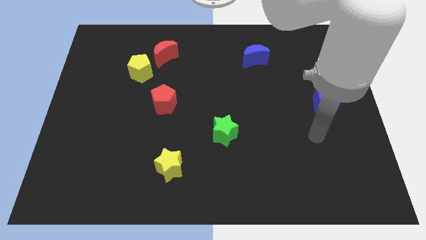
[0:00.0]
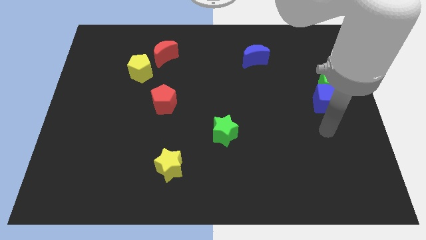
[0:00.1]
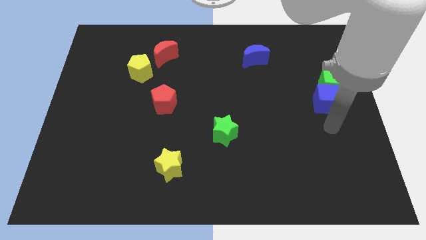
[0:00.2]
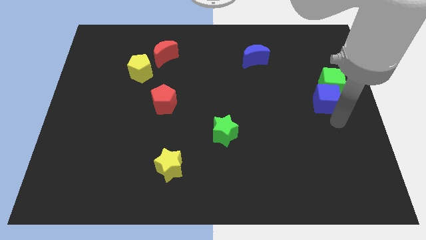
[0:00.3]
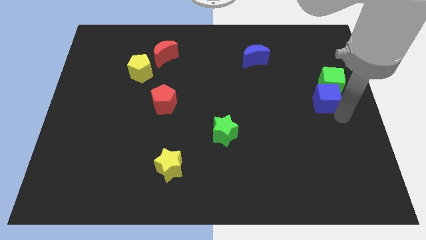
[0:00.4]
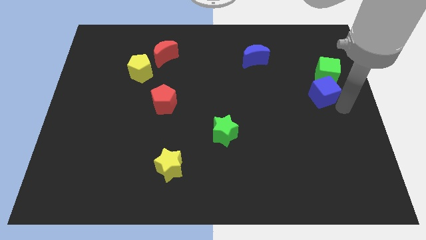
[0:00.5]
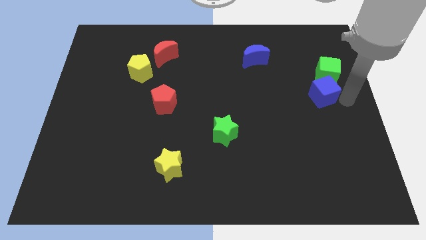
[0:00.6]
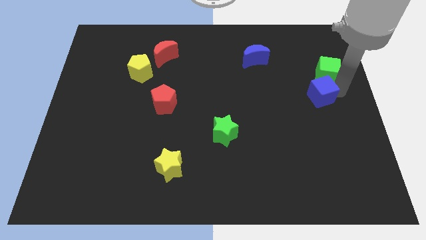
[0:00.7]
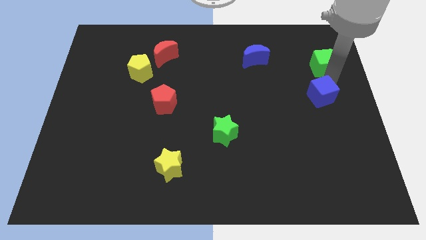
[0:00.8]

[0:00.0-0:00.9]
pull the blue cube apart from the green cube

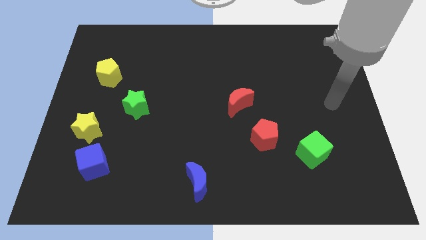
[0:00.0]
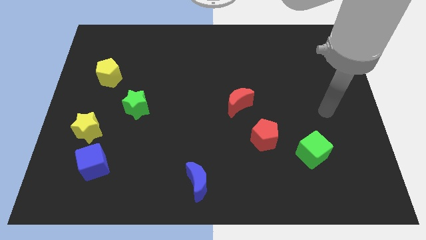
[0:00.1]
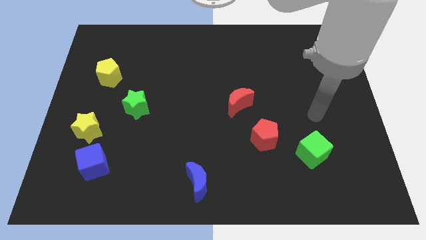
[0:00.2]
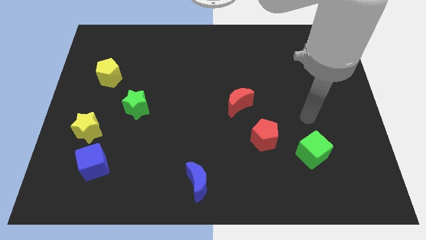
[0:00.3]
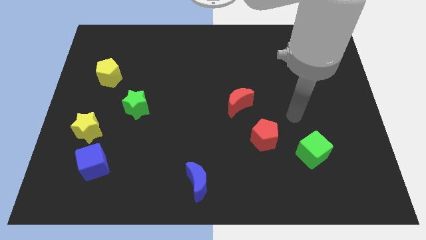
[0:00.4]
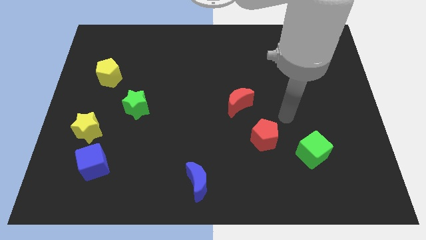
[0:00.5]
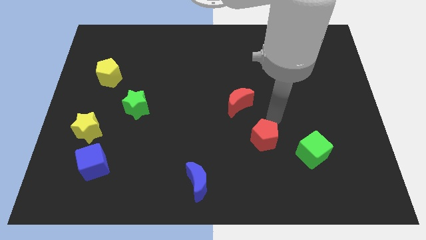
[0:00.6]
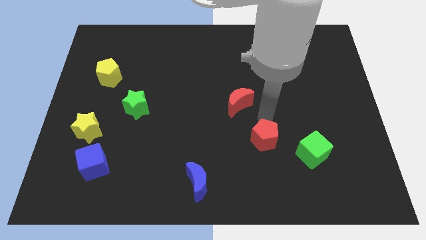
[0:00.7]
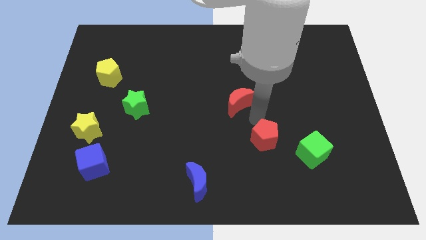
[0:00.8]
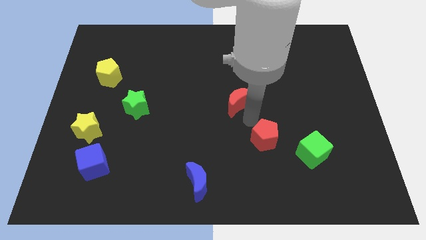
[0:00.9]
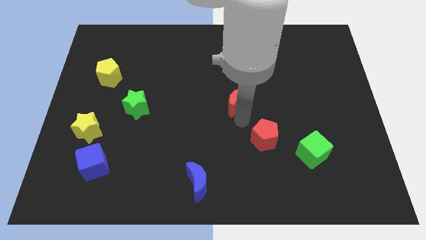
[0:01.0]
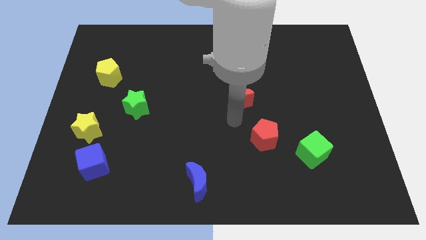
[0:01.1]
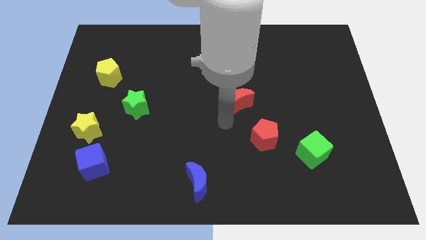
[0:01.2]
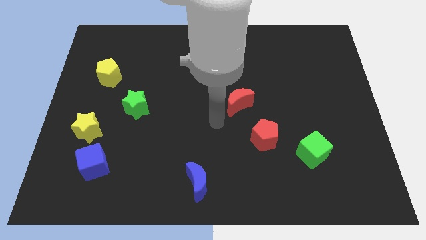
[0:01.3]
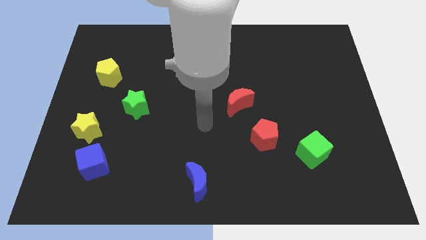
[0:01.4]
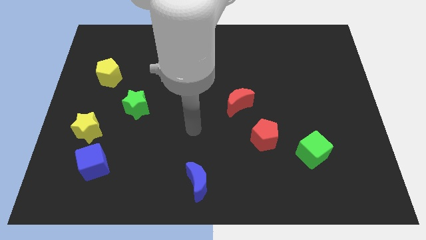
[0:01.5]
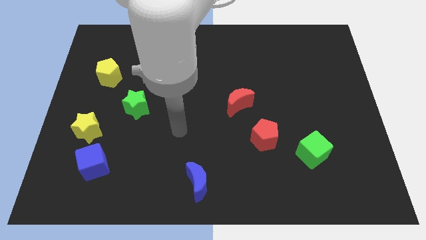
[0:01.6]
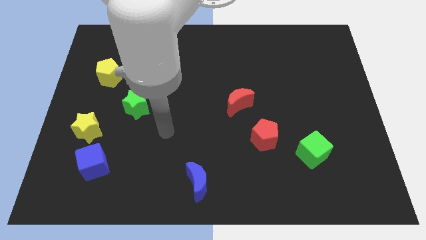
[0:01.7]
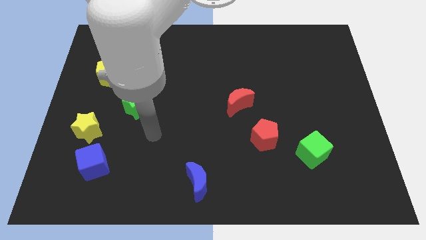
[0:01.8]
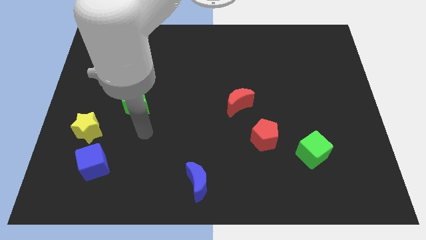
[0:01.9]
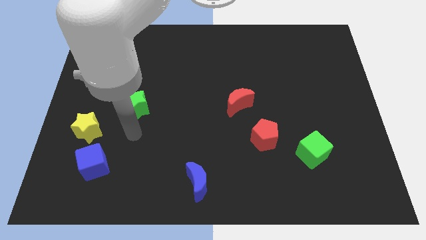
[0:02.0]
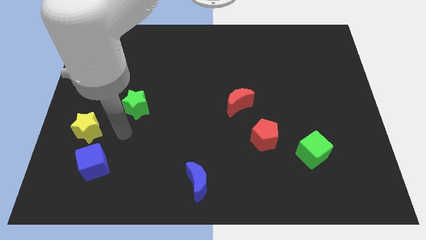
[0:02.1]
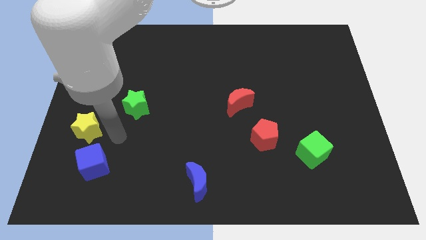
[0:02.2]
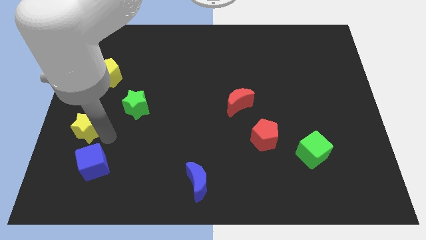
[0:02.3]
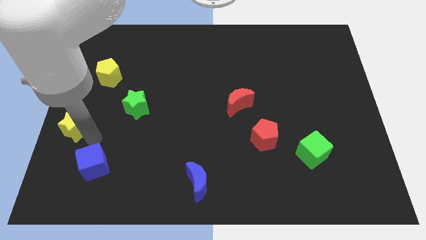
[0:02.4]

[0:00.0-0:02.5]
separate the blue cube from the yellow star

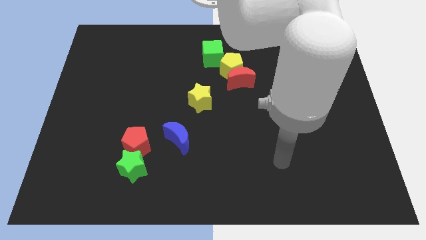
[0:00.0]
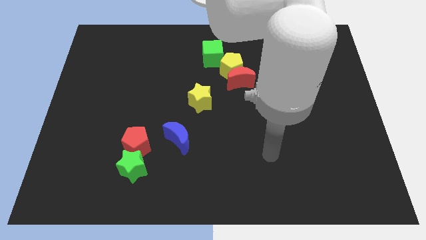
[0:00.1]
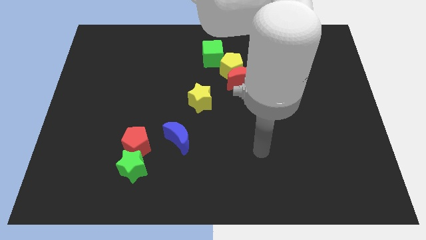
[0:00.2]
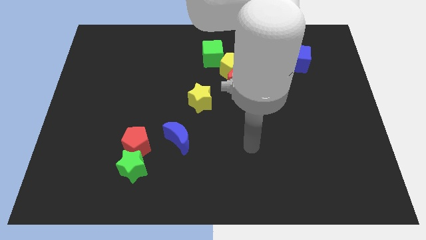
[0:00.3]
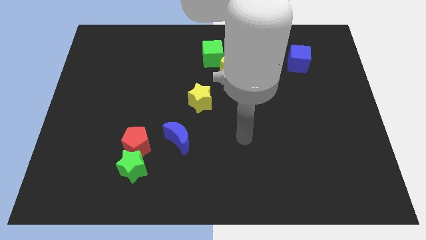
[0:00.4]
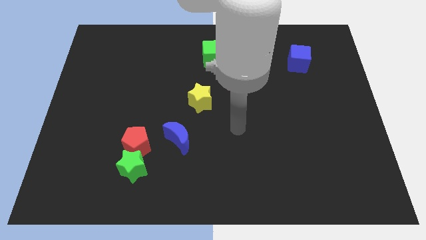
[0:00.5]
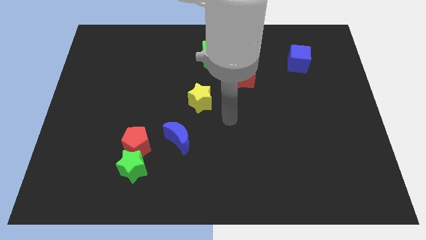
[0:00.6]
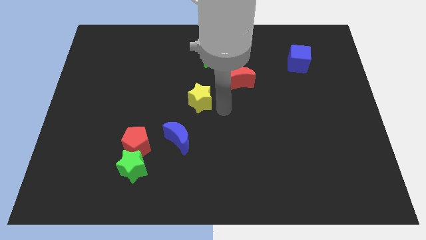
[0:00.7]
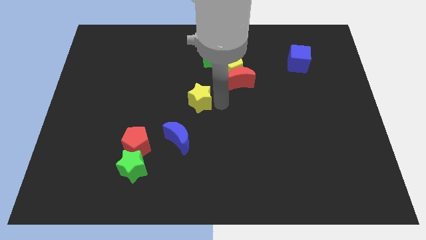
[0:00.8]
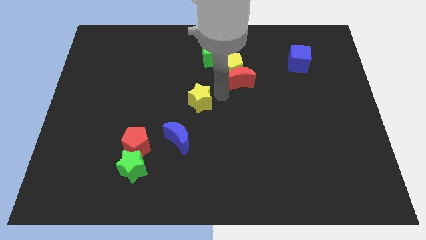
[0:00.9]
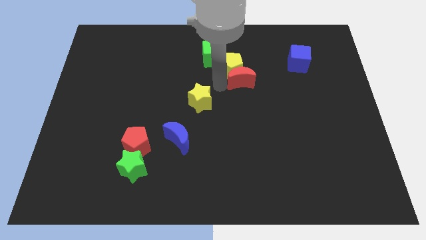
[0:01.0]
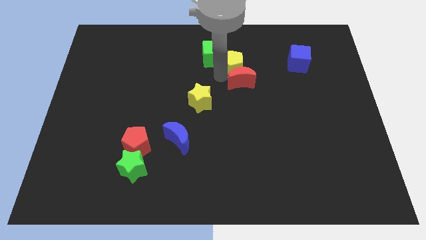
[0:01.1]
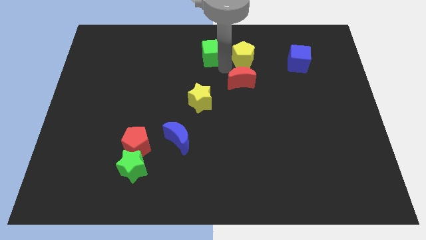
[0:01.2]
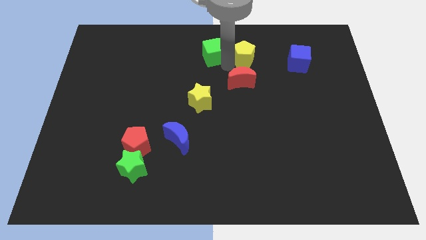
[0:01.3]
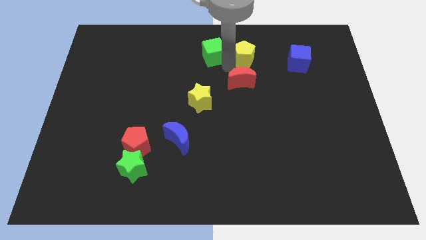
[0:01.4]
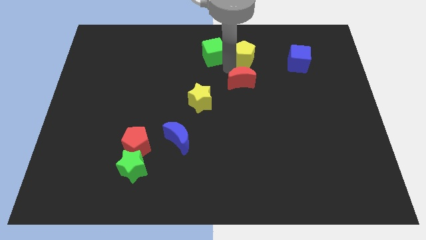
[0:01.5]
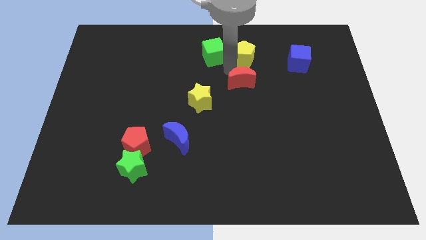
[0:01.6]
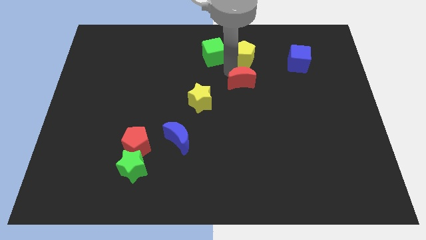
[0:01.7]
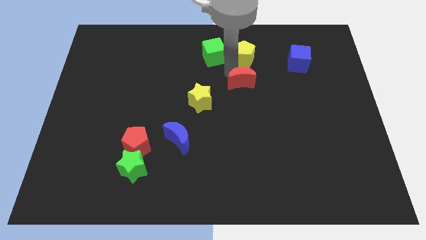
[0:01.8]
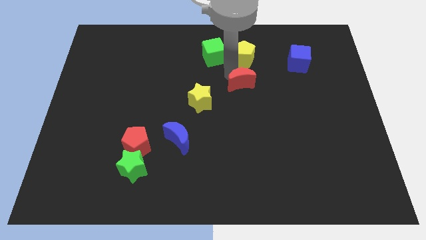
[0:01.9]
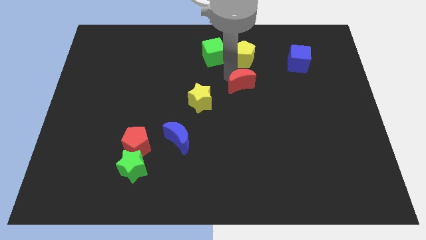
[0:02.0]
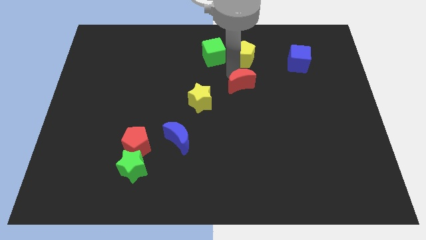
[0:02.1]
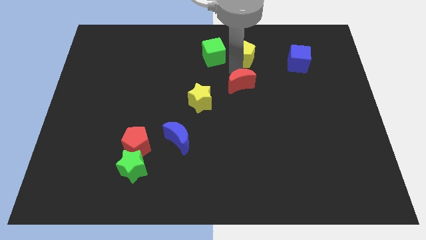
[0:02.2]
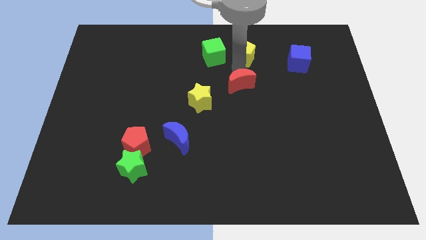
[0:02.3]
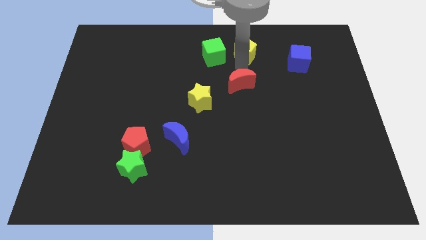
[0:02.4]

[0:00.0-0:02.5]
separate the red moon from the yellow pentagon

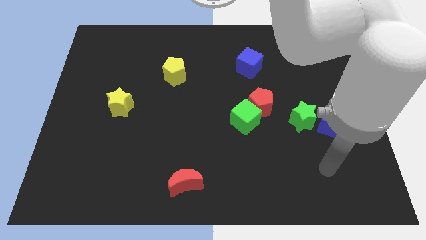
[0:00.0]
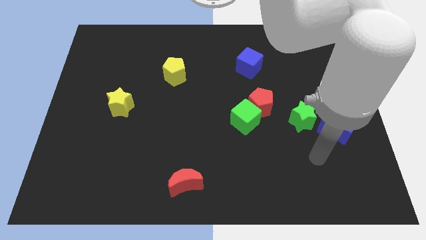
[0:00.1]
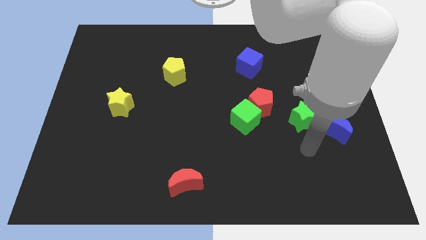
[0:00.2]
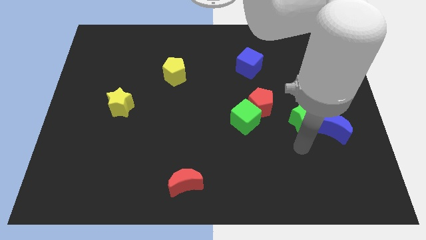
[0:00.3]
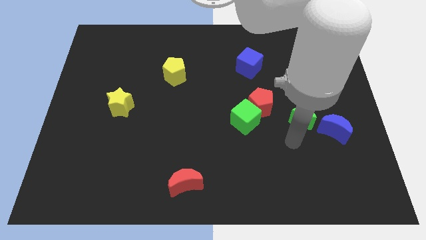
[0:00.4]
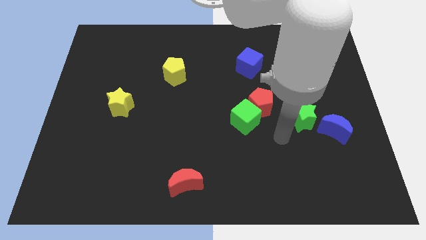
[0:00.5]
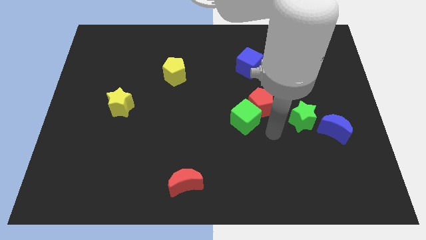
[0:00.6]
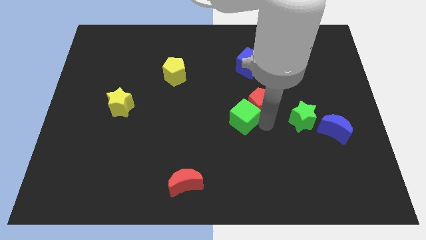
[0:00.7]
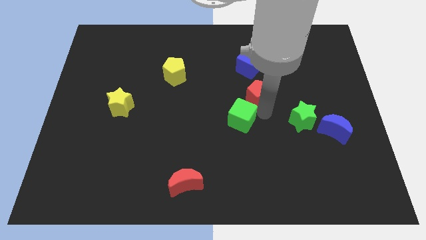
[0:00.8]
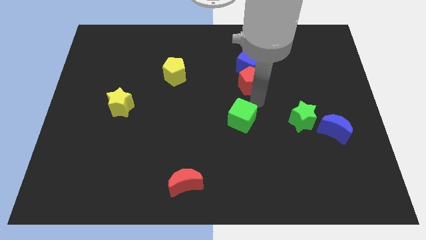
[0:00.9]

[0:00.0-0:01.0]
separate the green cube from the red pentagon

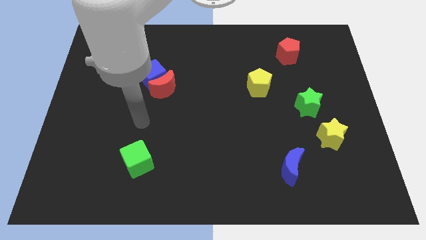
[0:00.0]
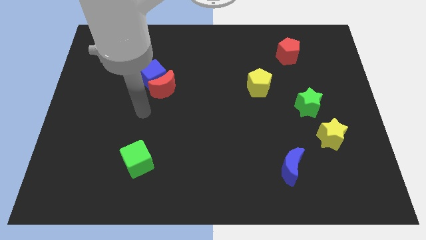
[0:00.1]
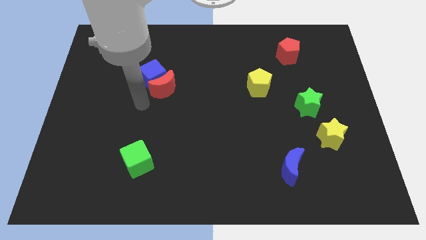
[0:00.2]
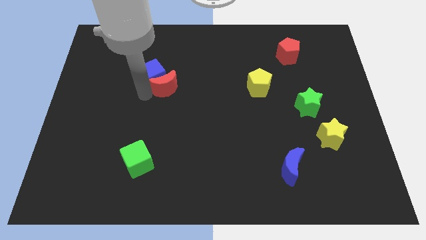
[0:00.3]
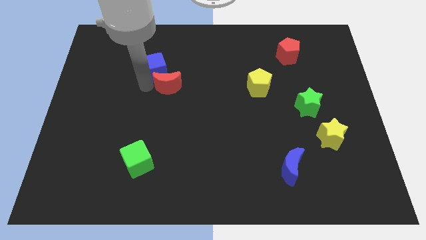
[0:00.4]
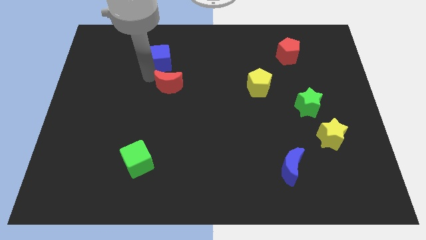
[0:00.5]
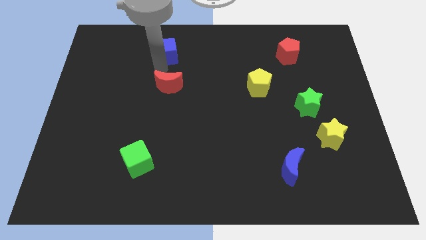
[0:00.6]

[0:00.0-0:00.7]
move the red moon away from the blue cube

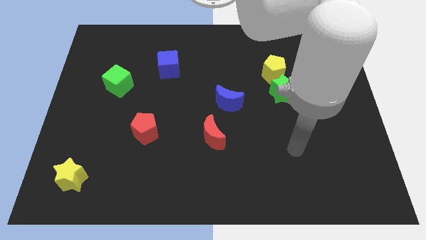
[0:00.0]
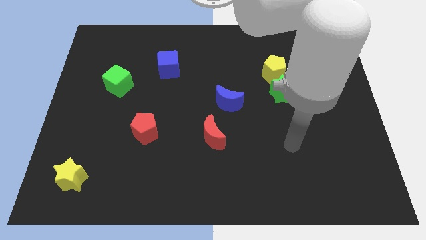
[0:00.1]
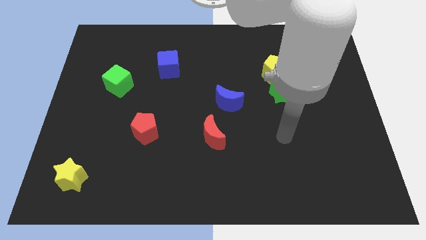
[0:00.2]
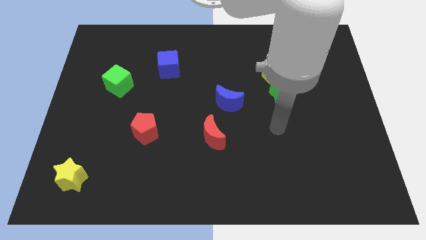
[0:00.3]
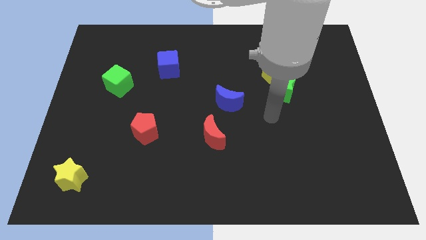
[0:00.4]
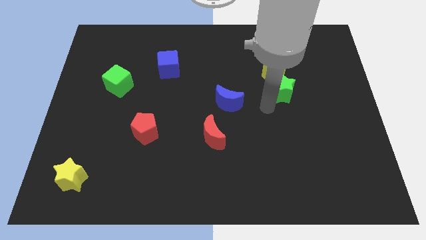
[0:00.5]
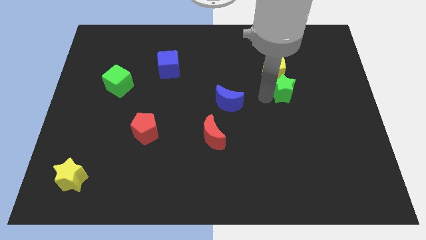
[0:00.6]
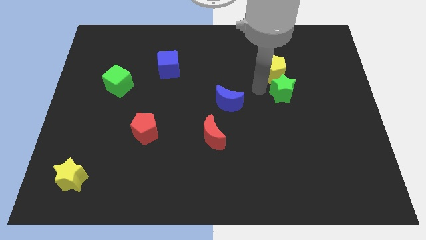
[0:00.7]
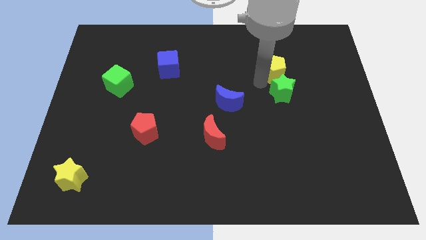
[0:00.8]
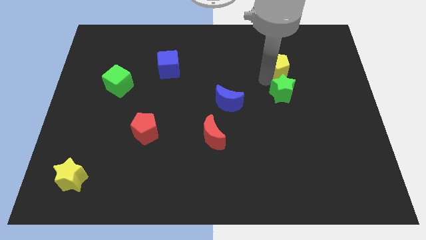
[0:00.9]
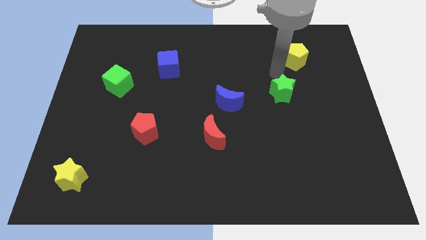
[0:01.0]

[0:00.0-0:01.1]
separate the green star from the yellow pentagon

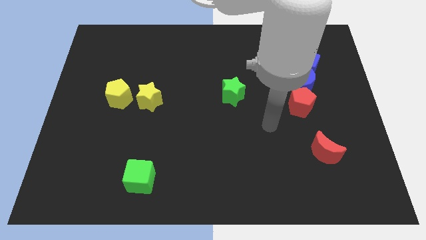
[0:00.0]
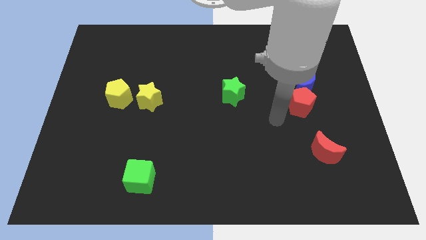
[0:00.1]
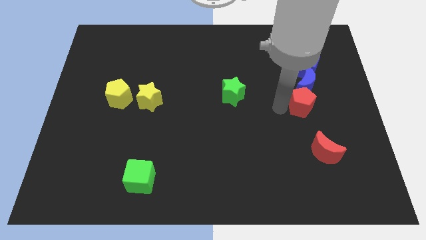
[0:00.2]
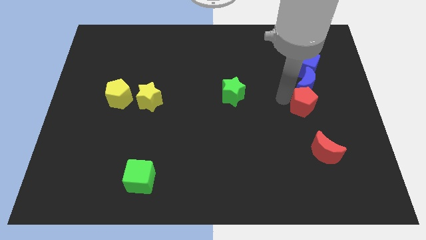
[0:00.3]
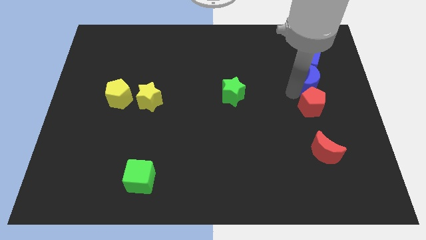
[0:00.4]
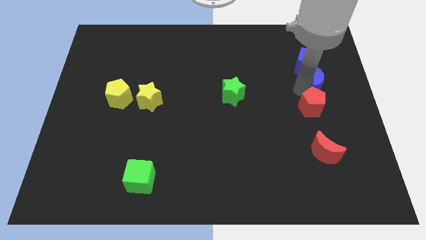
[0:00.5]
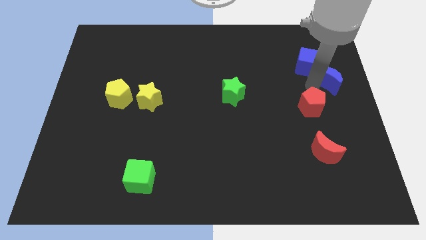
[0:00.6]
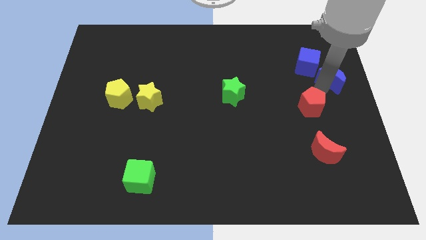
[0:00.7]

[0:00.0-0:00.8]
move the red pentagon away from the blue moon
